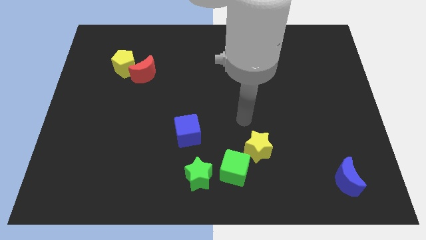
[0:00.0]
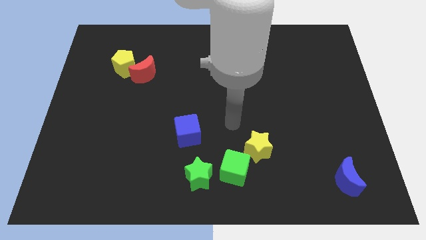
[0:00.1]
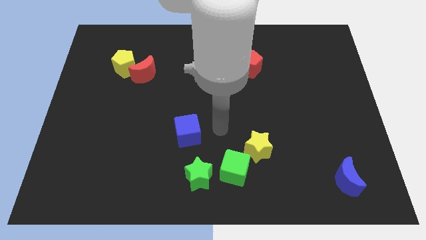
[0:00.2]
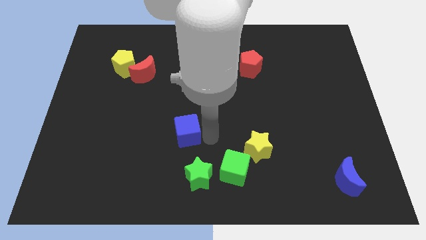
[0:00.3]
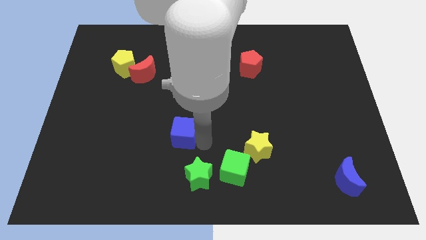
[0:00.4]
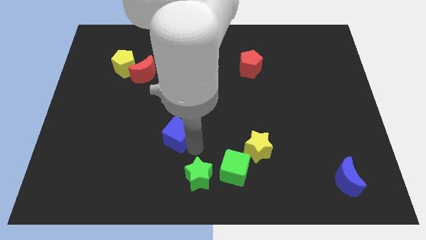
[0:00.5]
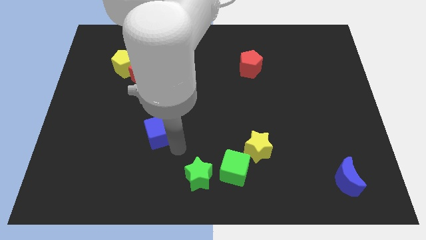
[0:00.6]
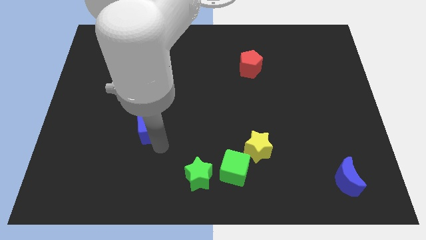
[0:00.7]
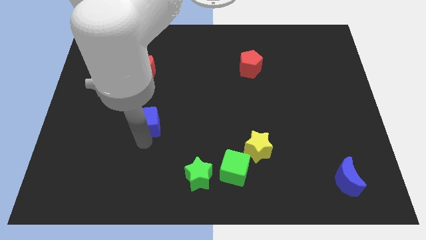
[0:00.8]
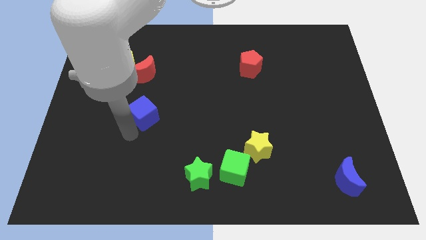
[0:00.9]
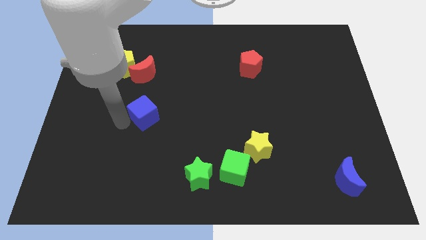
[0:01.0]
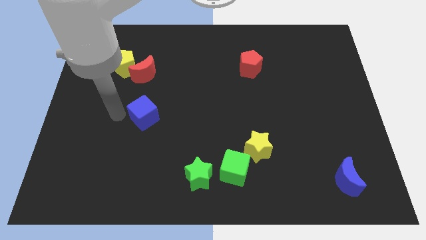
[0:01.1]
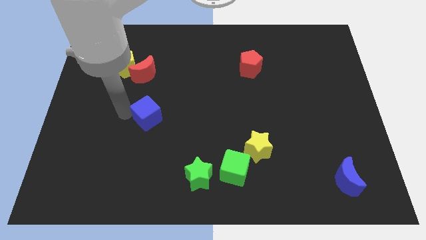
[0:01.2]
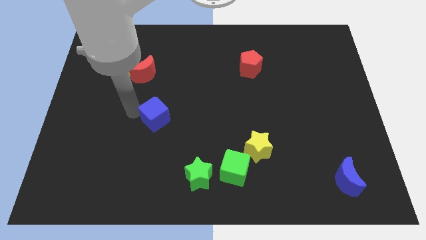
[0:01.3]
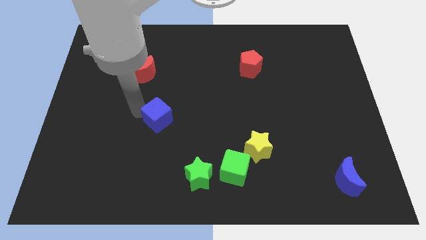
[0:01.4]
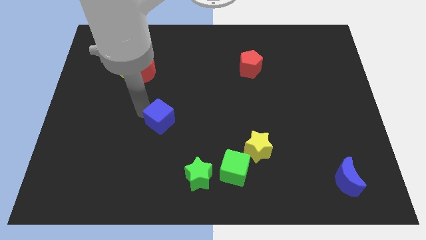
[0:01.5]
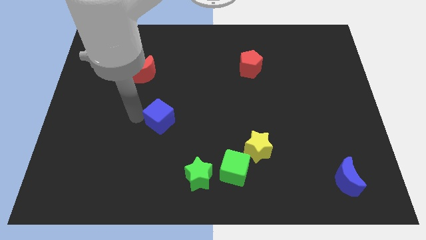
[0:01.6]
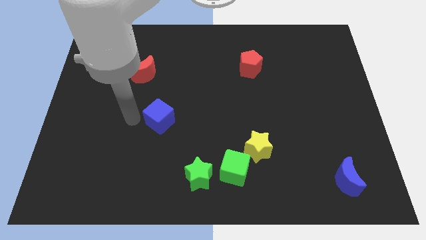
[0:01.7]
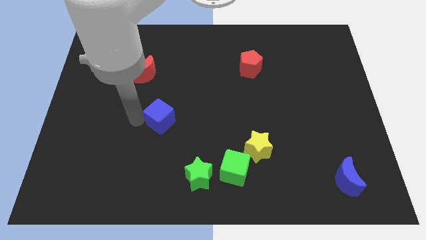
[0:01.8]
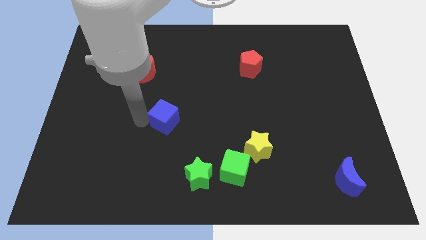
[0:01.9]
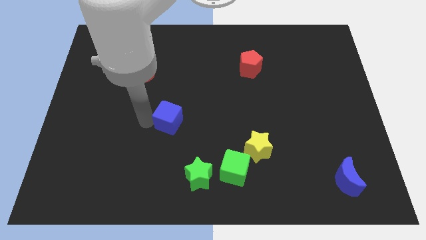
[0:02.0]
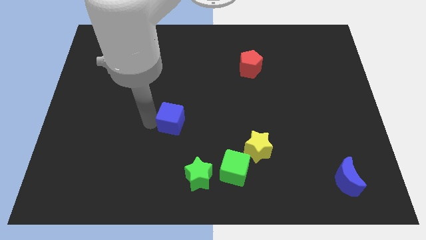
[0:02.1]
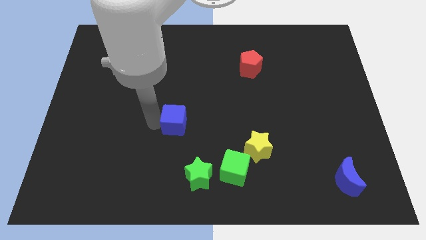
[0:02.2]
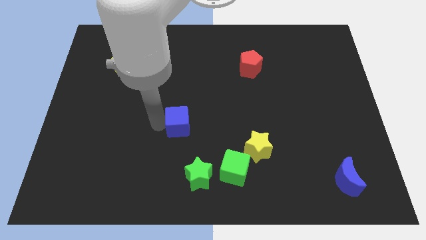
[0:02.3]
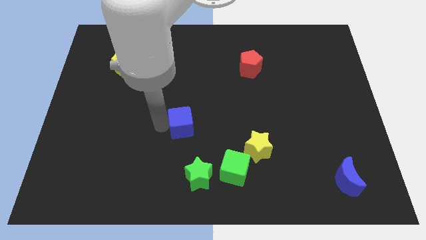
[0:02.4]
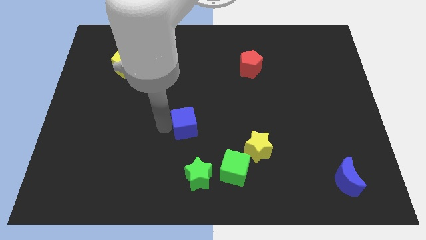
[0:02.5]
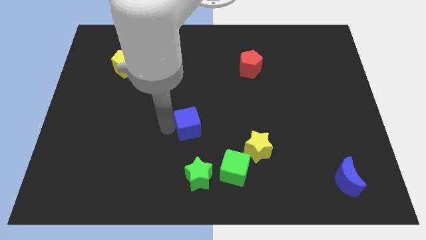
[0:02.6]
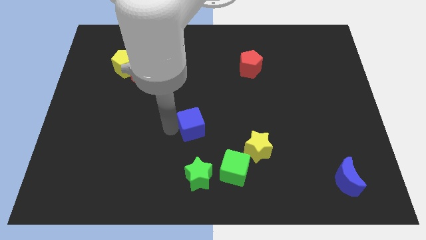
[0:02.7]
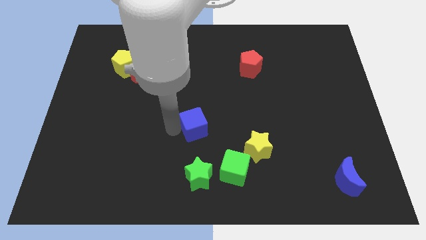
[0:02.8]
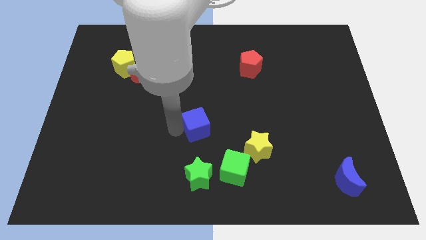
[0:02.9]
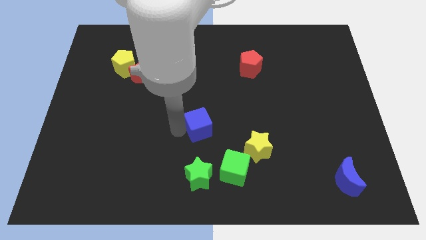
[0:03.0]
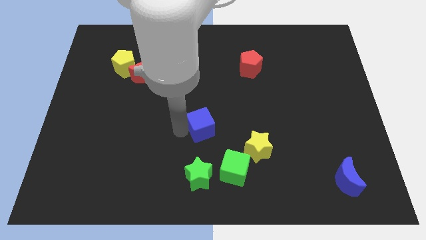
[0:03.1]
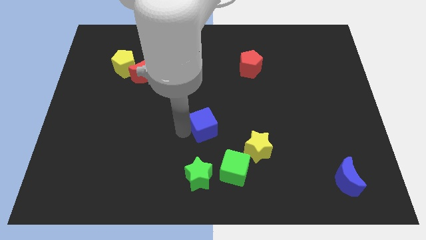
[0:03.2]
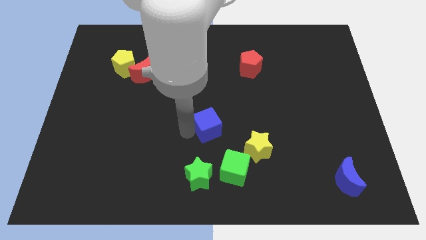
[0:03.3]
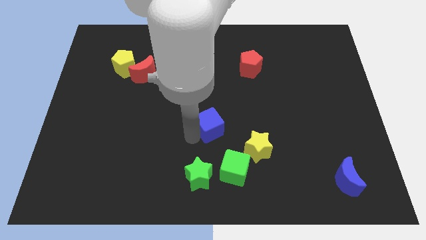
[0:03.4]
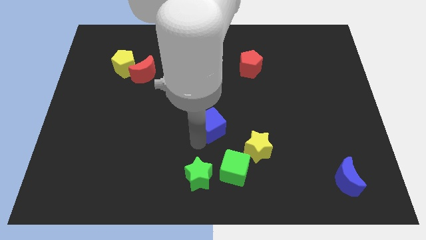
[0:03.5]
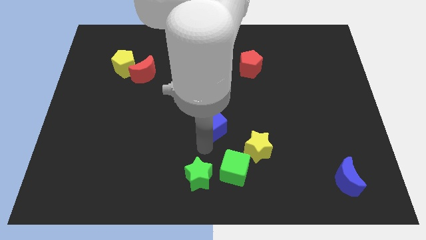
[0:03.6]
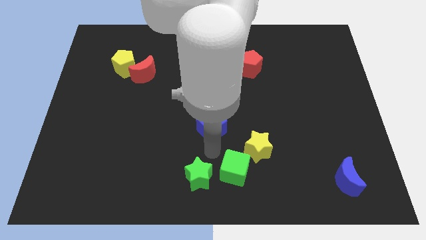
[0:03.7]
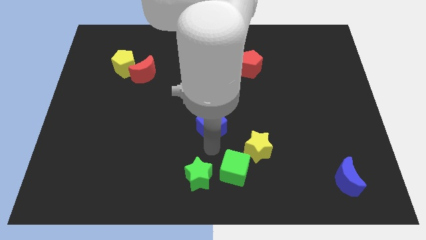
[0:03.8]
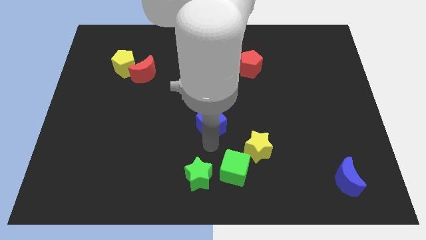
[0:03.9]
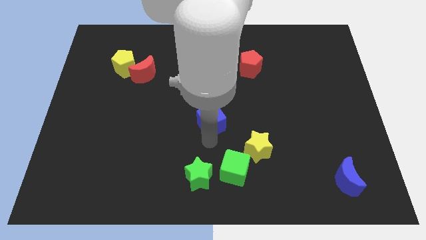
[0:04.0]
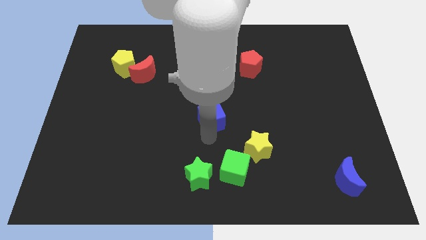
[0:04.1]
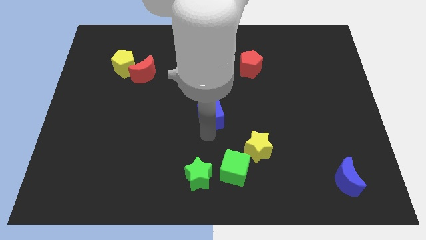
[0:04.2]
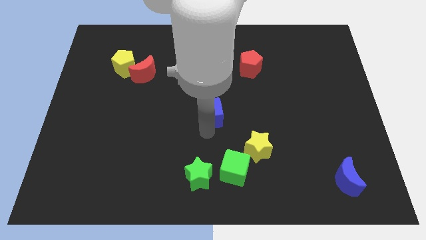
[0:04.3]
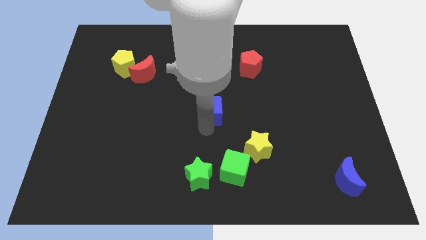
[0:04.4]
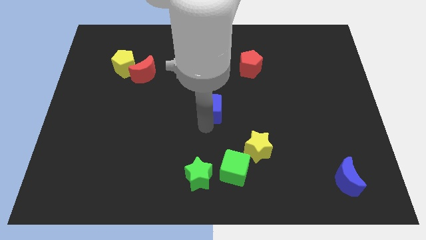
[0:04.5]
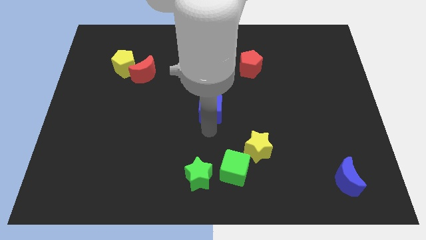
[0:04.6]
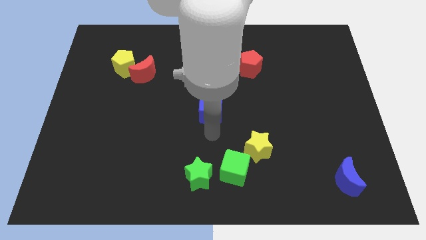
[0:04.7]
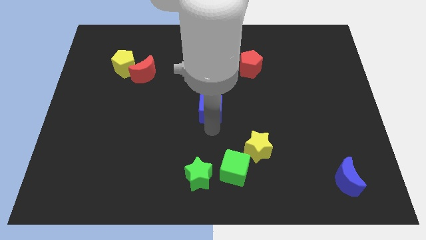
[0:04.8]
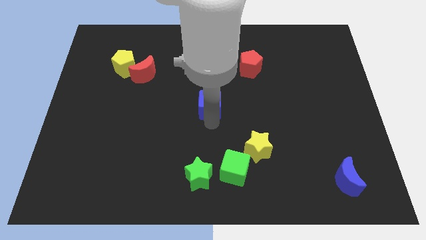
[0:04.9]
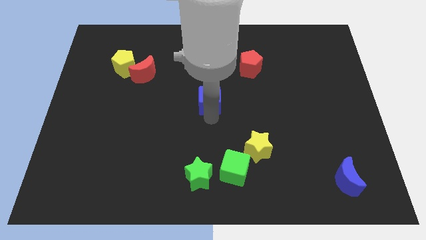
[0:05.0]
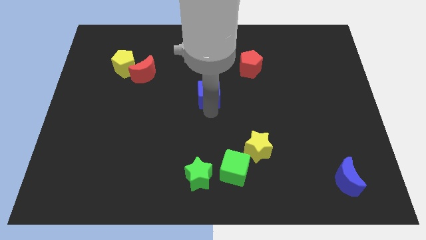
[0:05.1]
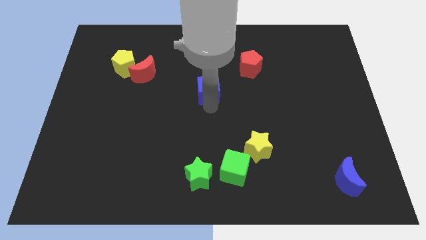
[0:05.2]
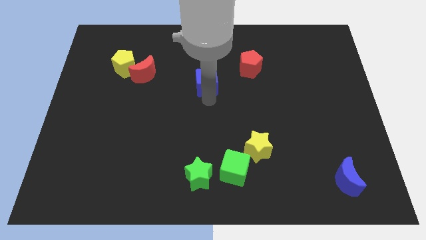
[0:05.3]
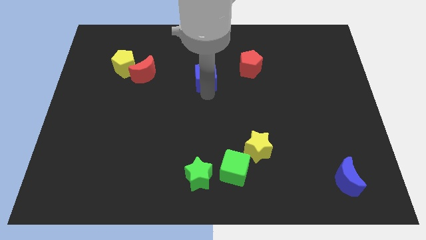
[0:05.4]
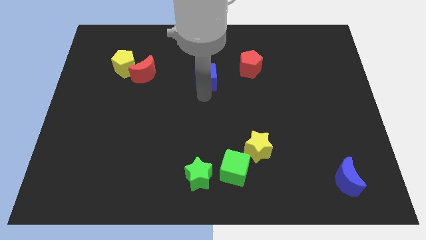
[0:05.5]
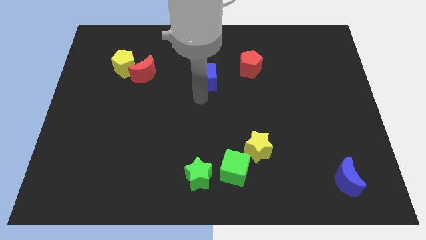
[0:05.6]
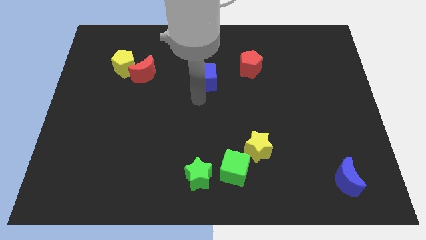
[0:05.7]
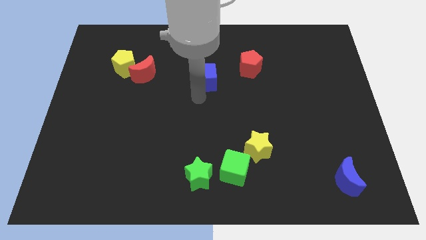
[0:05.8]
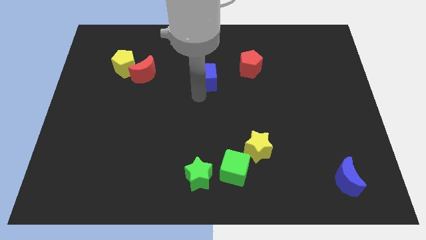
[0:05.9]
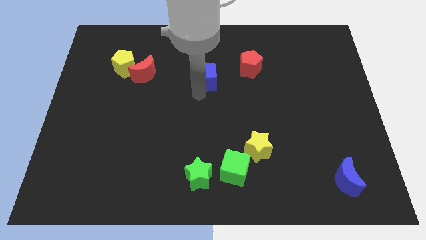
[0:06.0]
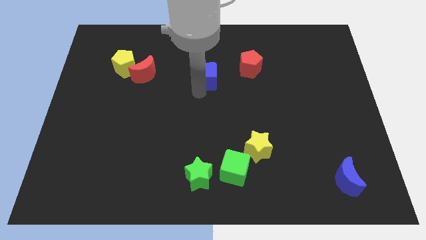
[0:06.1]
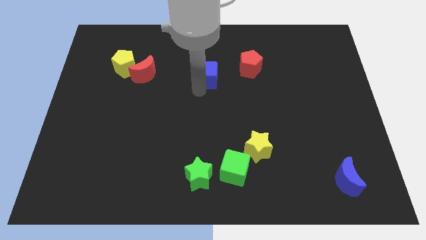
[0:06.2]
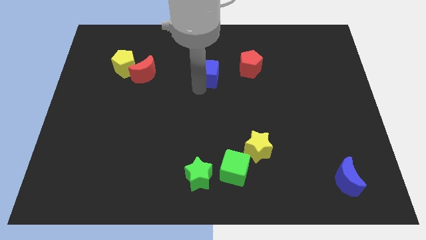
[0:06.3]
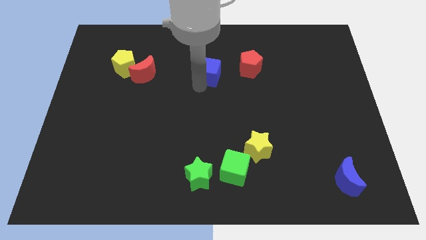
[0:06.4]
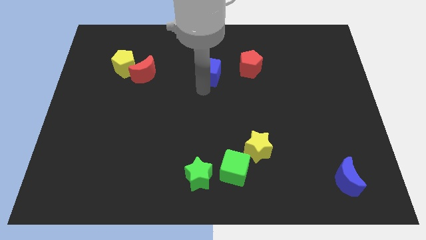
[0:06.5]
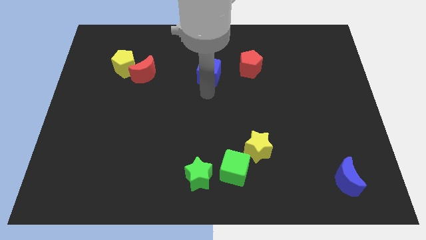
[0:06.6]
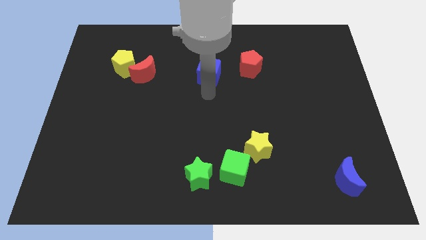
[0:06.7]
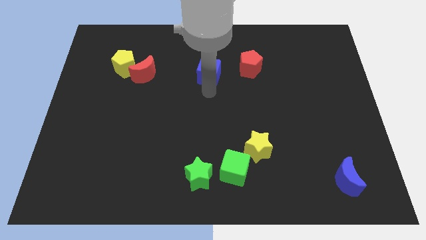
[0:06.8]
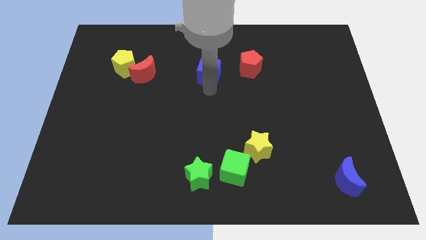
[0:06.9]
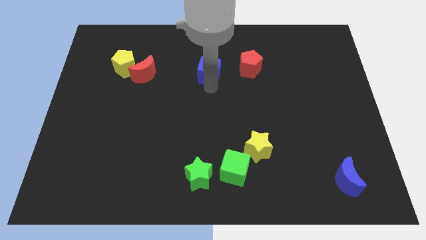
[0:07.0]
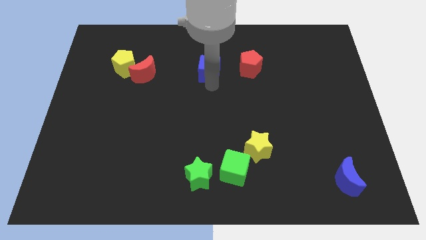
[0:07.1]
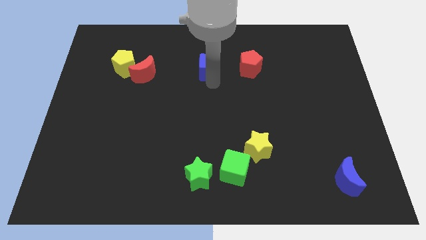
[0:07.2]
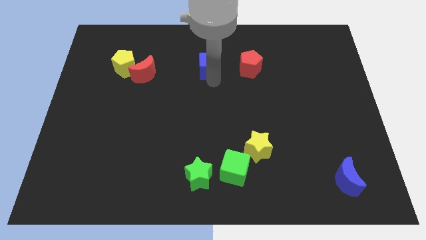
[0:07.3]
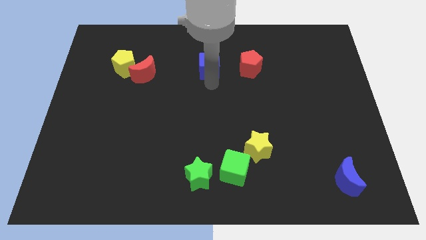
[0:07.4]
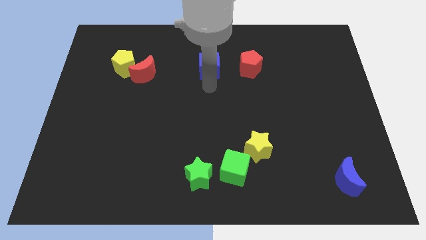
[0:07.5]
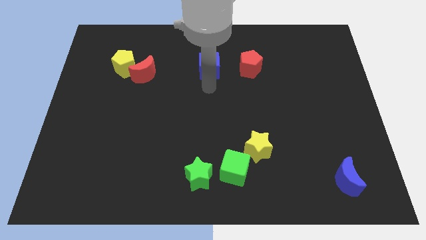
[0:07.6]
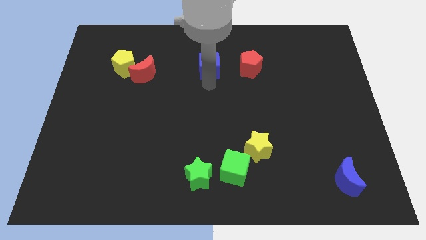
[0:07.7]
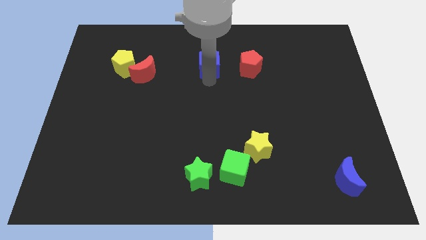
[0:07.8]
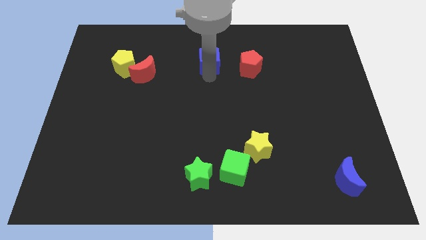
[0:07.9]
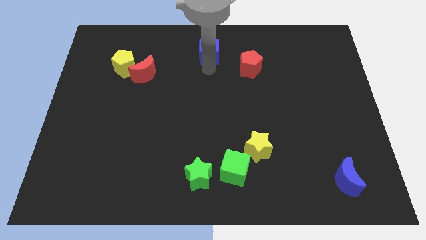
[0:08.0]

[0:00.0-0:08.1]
move the blue cube to the top
